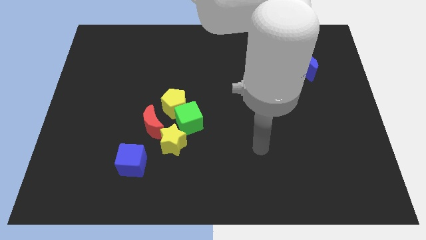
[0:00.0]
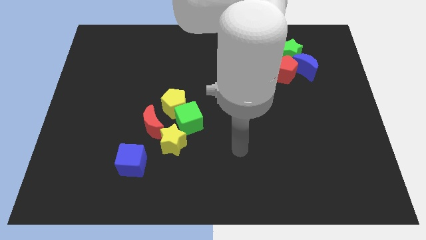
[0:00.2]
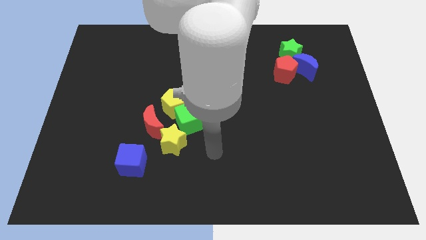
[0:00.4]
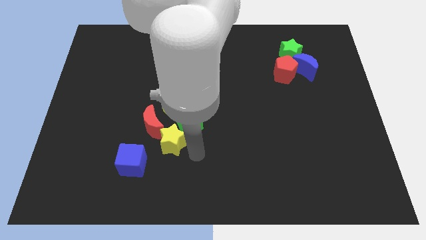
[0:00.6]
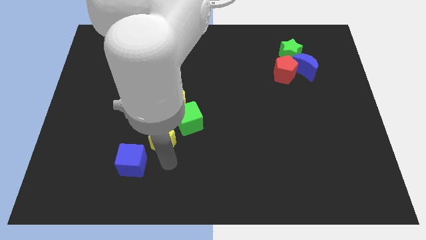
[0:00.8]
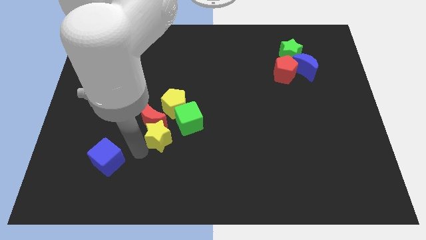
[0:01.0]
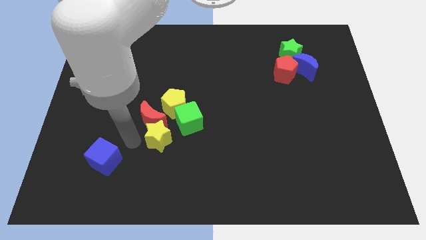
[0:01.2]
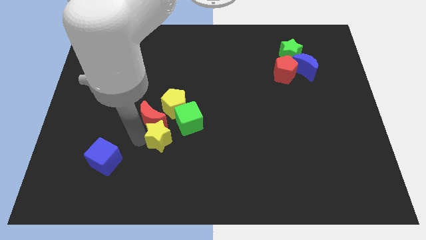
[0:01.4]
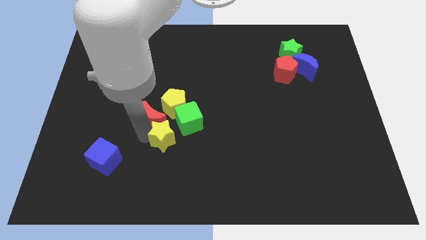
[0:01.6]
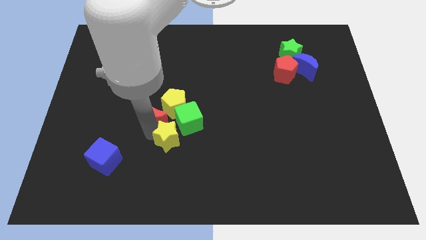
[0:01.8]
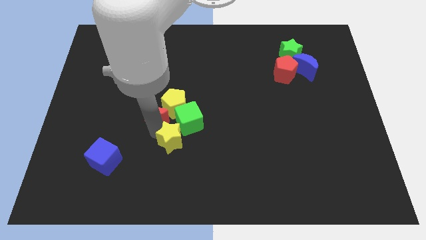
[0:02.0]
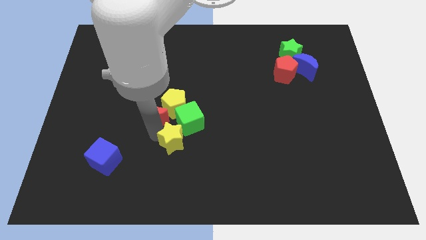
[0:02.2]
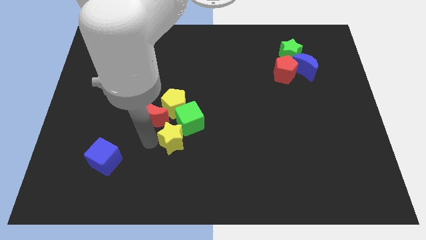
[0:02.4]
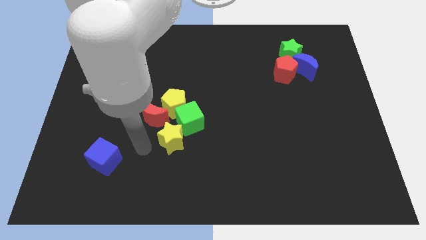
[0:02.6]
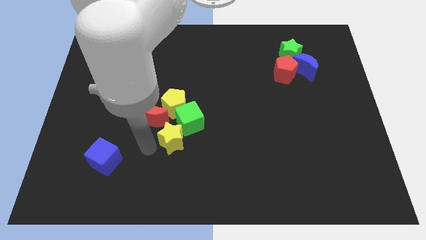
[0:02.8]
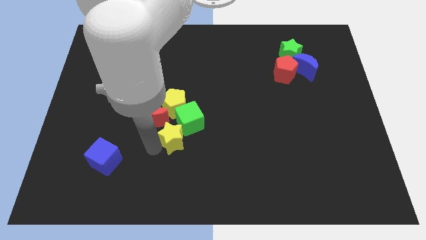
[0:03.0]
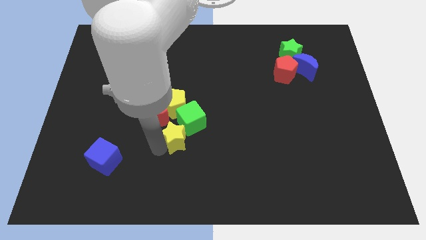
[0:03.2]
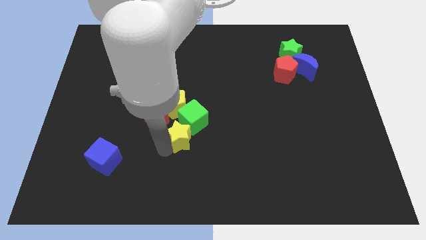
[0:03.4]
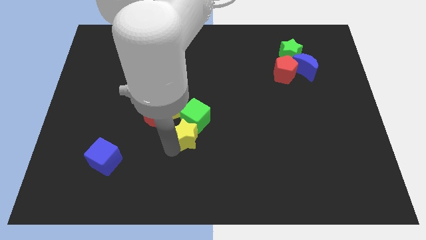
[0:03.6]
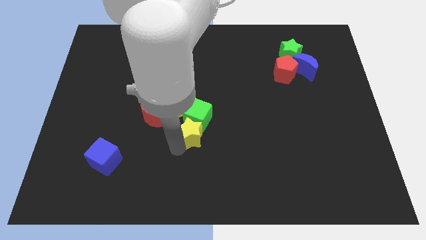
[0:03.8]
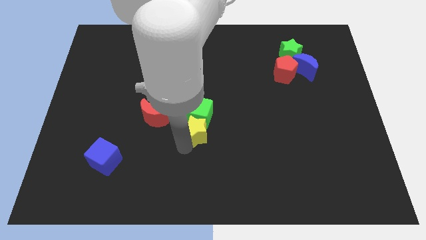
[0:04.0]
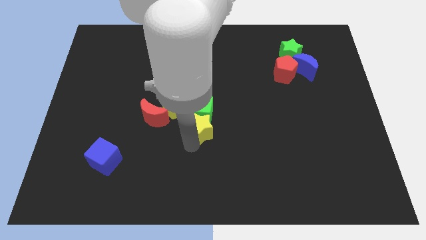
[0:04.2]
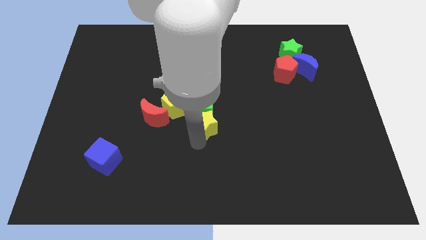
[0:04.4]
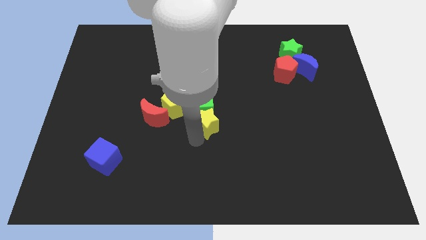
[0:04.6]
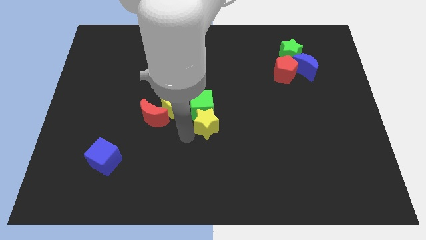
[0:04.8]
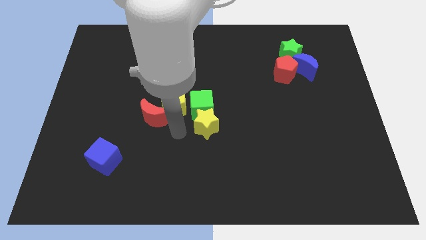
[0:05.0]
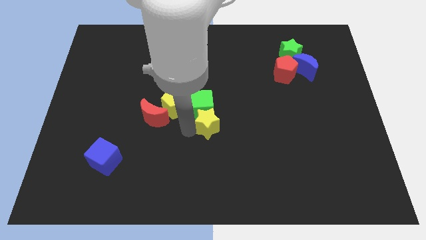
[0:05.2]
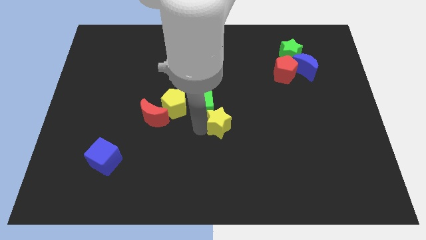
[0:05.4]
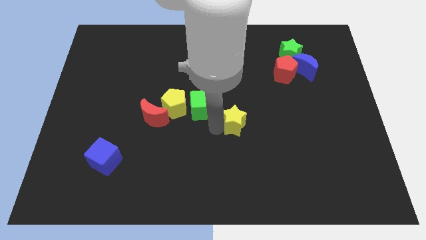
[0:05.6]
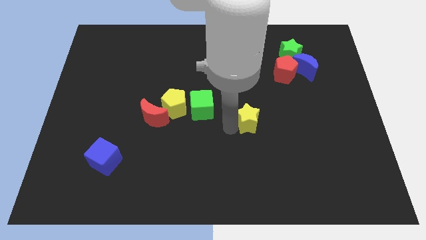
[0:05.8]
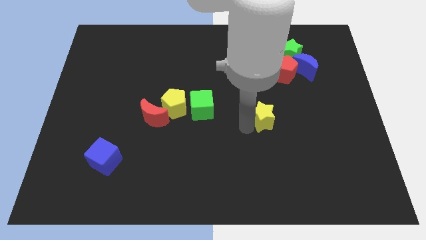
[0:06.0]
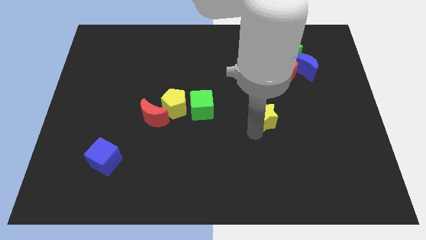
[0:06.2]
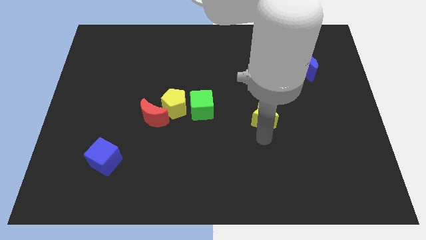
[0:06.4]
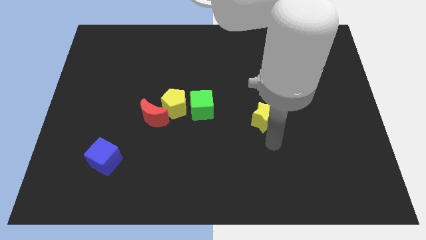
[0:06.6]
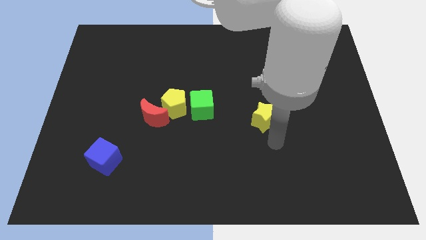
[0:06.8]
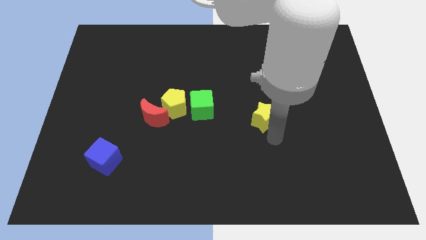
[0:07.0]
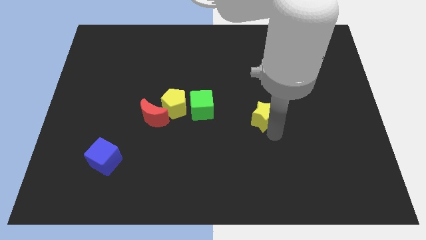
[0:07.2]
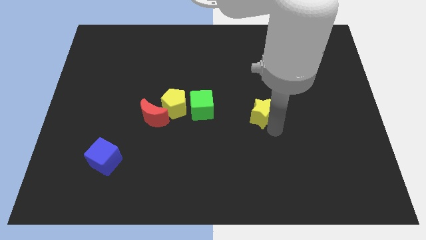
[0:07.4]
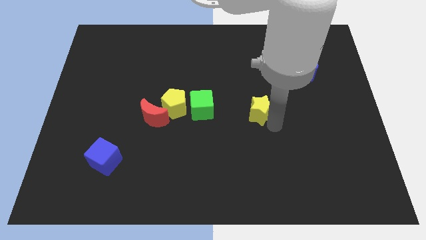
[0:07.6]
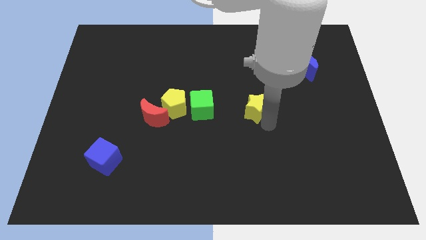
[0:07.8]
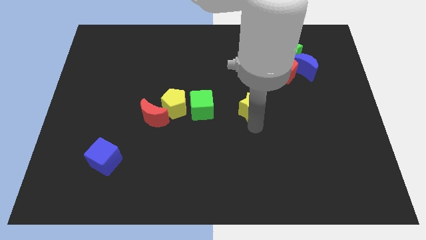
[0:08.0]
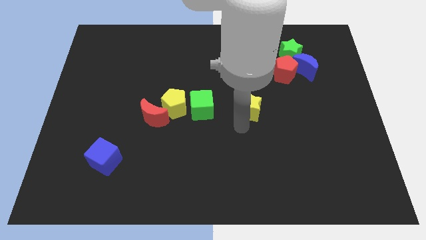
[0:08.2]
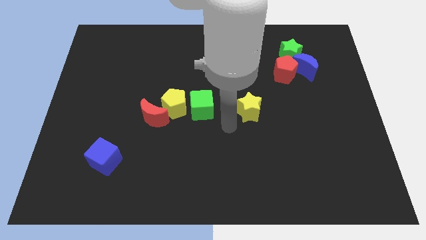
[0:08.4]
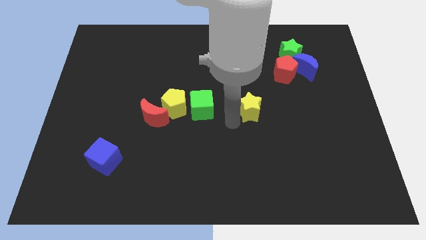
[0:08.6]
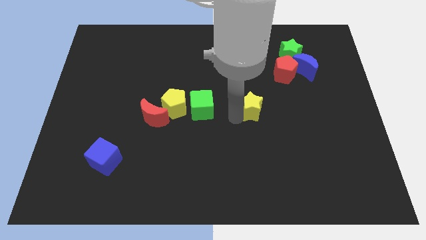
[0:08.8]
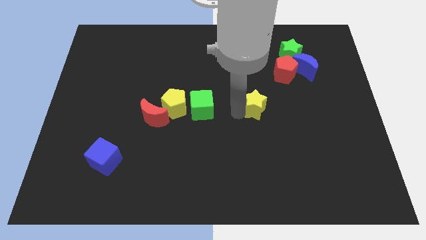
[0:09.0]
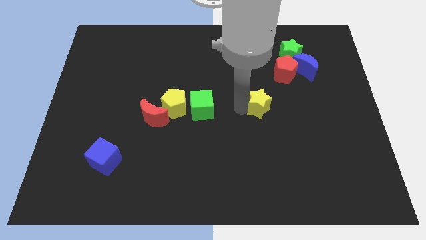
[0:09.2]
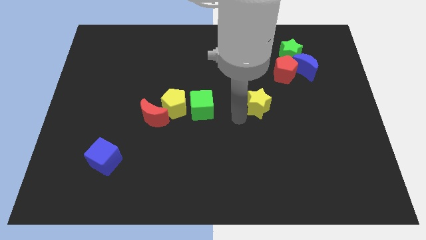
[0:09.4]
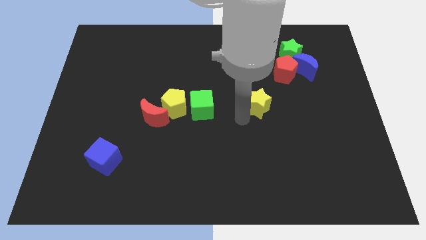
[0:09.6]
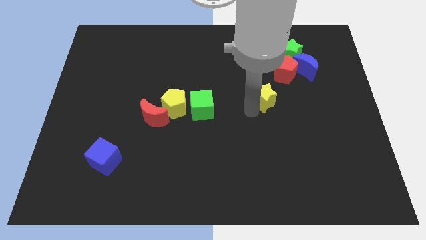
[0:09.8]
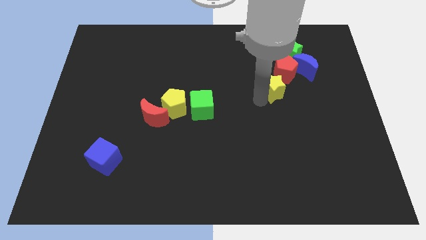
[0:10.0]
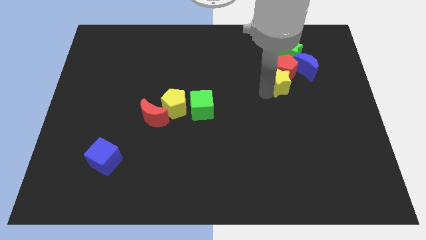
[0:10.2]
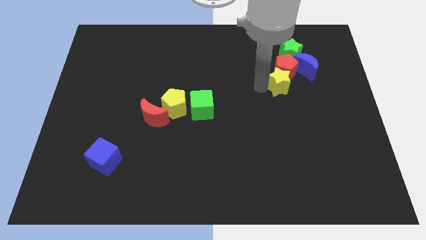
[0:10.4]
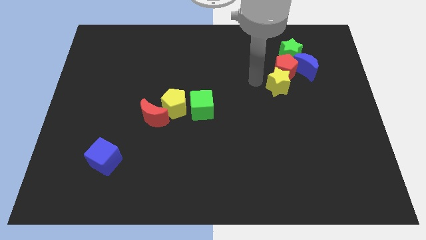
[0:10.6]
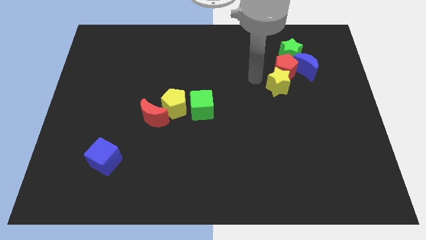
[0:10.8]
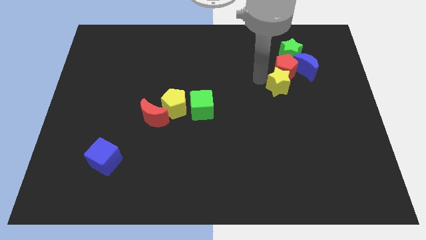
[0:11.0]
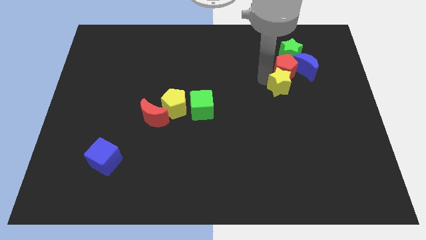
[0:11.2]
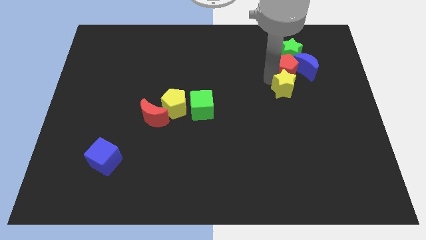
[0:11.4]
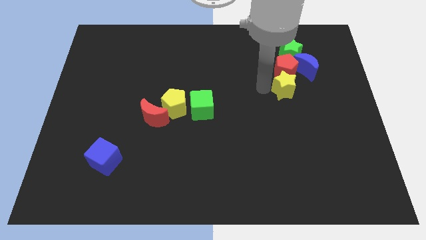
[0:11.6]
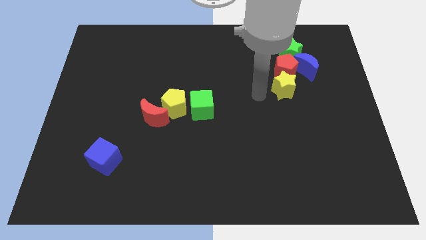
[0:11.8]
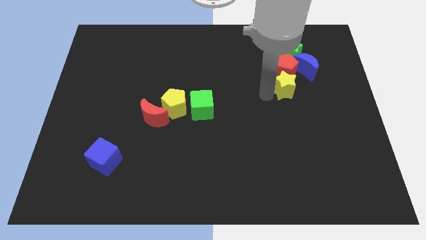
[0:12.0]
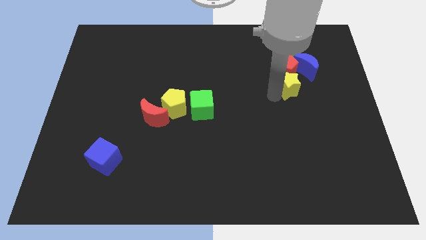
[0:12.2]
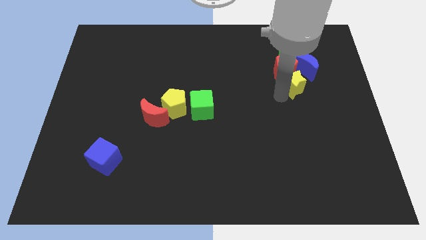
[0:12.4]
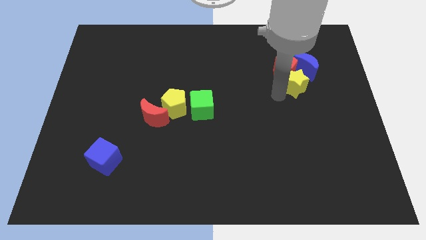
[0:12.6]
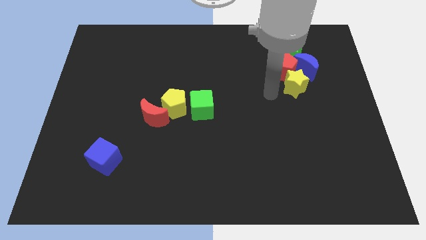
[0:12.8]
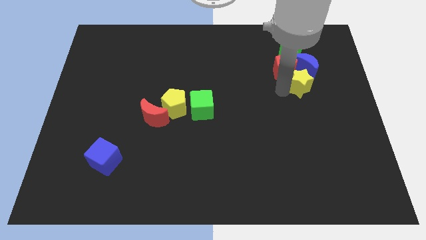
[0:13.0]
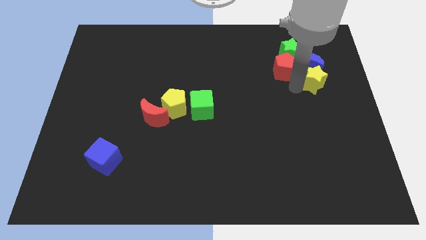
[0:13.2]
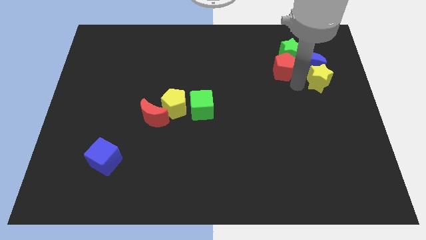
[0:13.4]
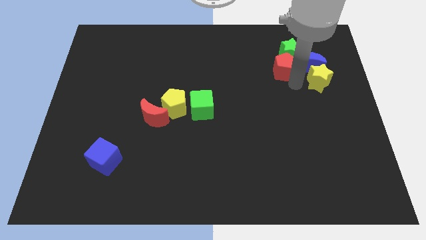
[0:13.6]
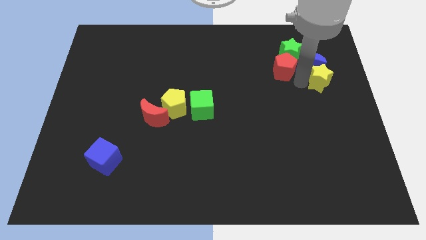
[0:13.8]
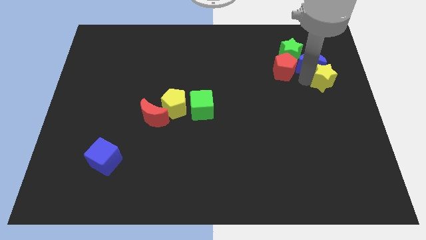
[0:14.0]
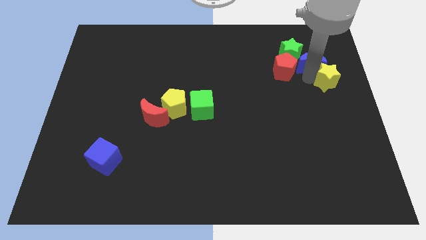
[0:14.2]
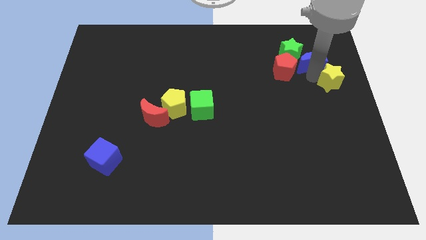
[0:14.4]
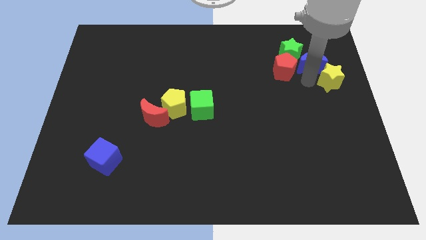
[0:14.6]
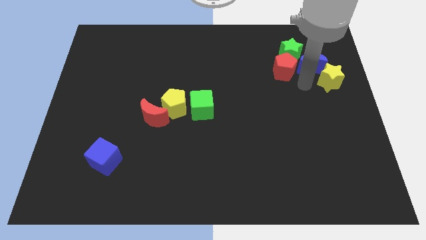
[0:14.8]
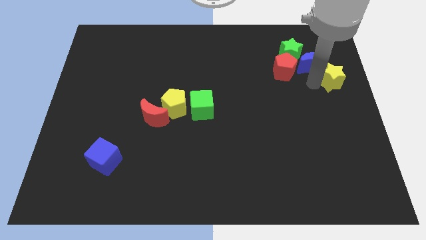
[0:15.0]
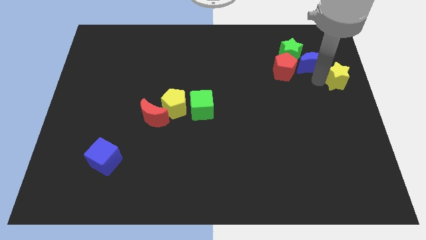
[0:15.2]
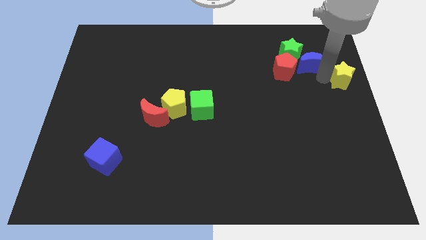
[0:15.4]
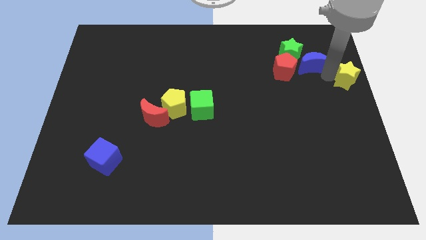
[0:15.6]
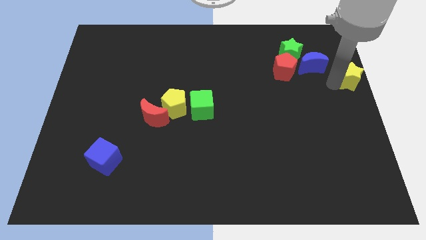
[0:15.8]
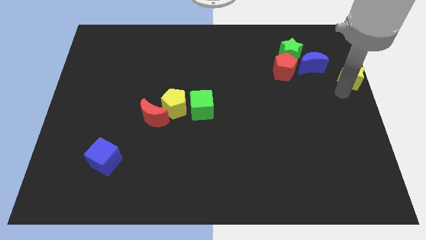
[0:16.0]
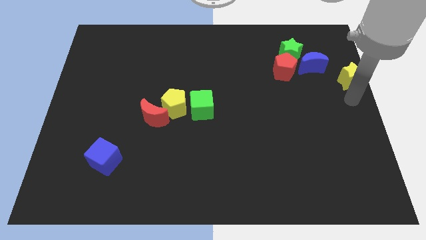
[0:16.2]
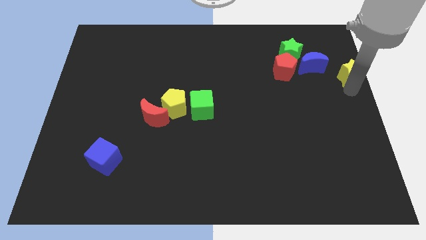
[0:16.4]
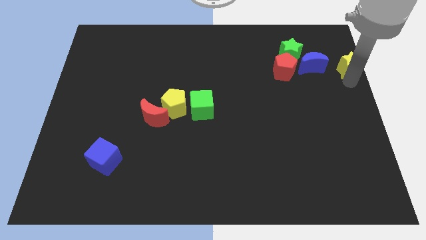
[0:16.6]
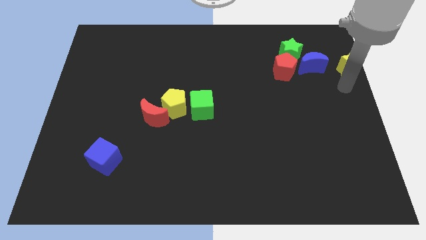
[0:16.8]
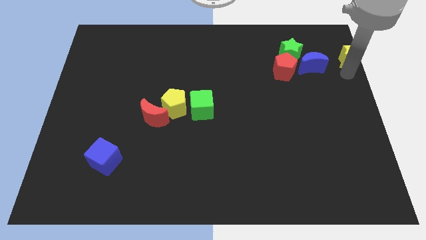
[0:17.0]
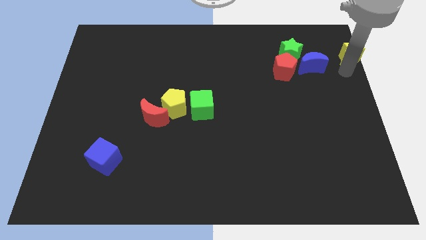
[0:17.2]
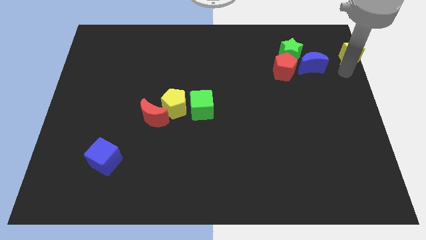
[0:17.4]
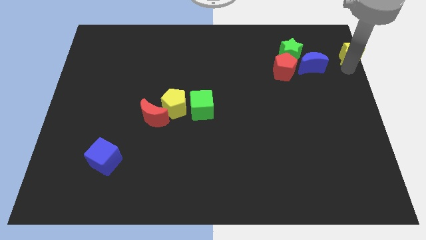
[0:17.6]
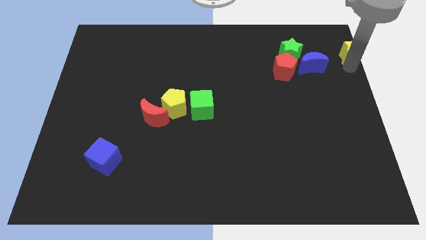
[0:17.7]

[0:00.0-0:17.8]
put the yellow star to the top right of the board
